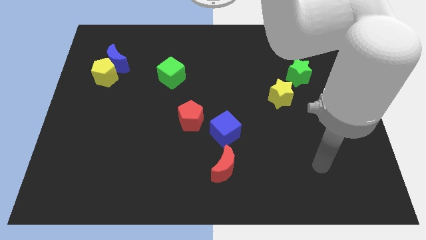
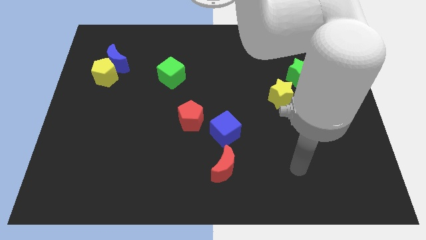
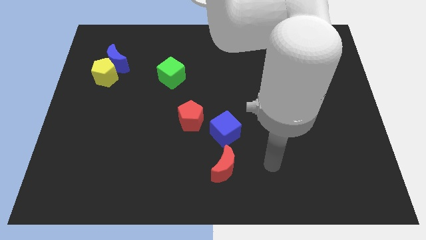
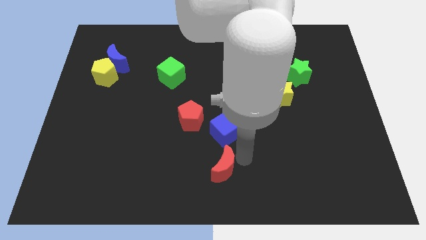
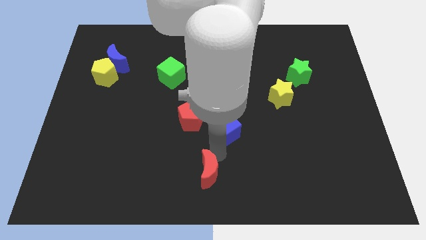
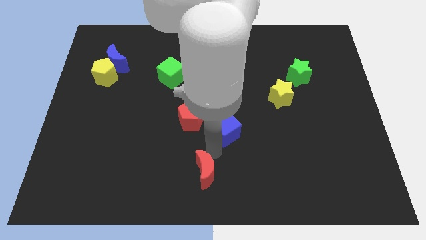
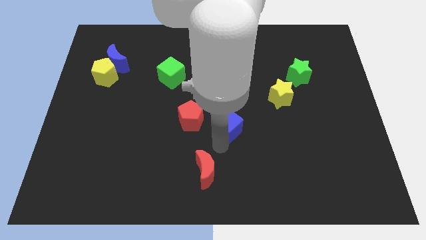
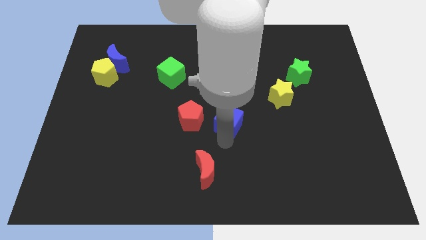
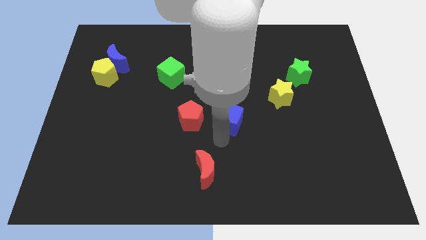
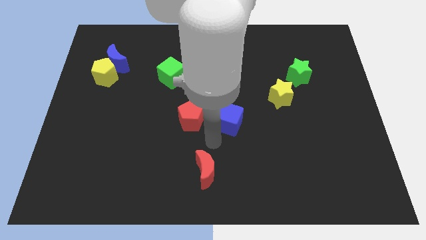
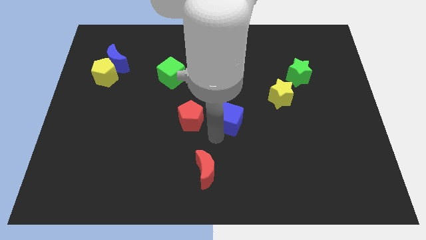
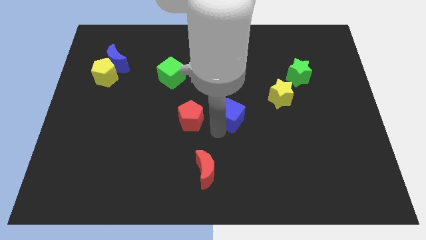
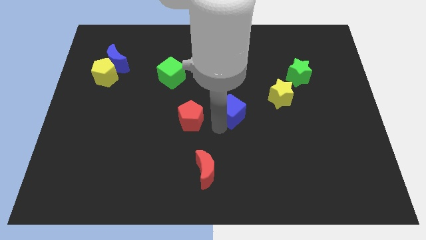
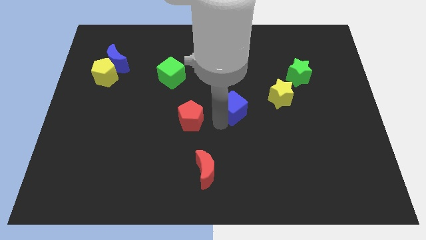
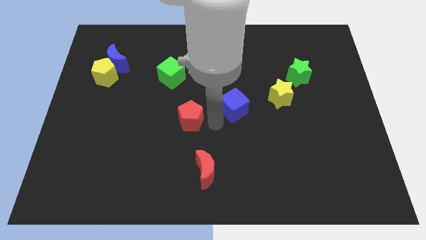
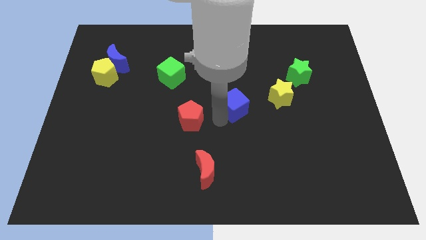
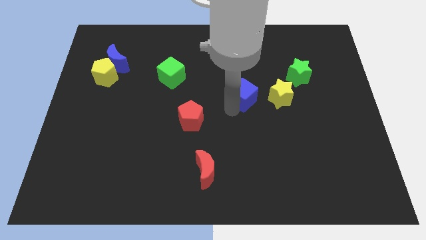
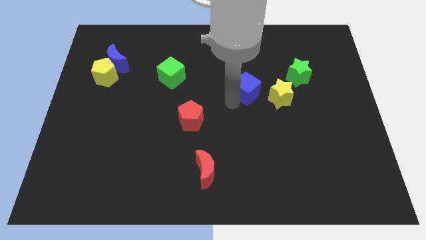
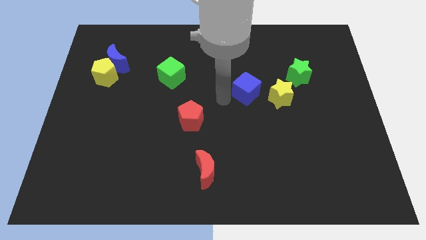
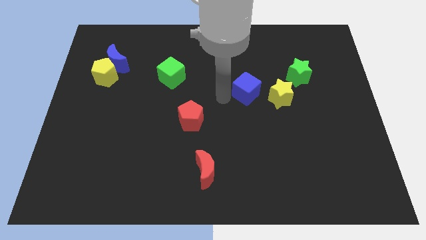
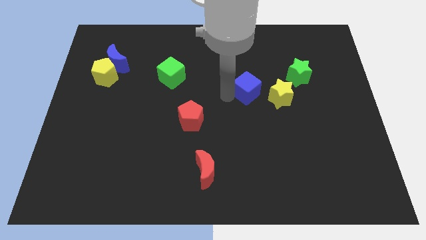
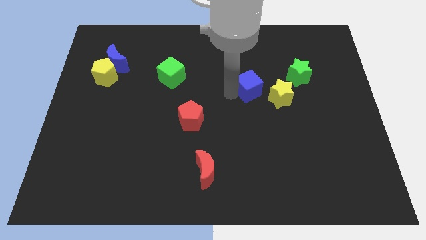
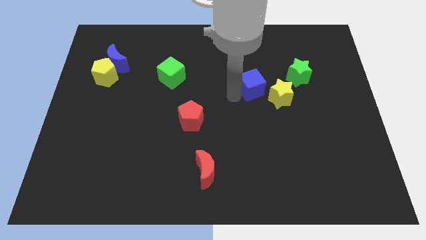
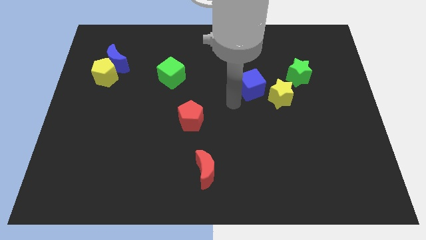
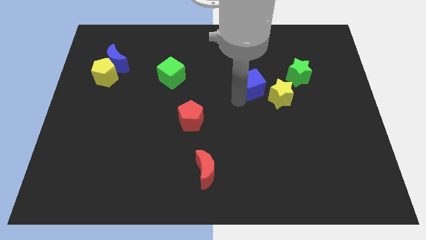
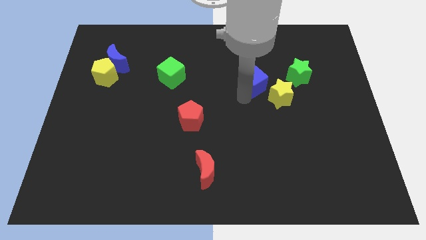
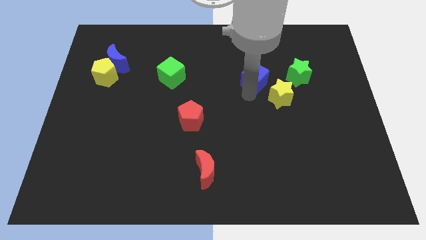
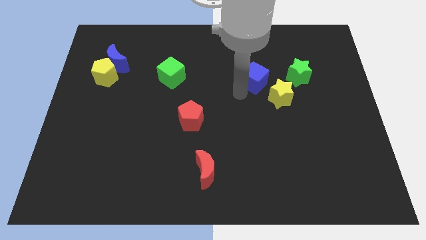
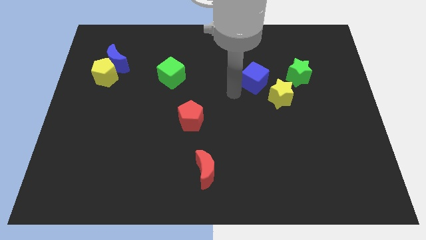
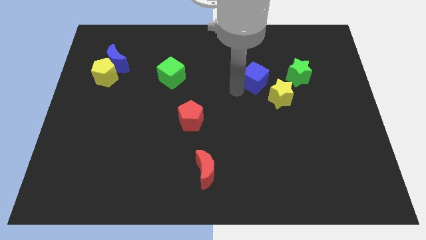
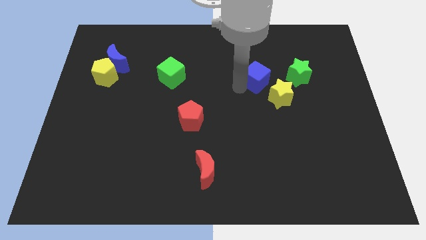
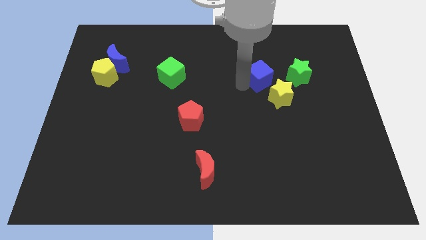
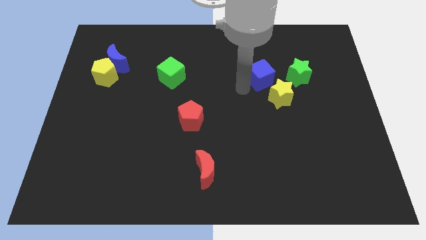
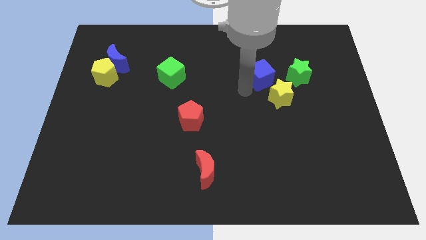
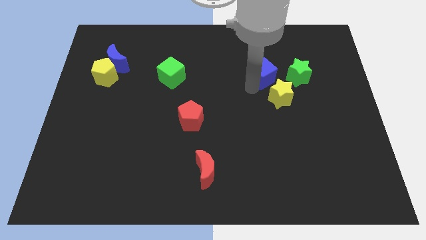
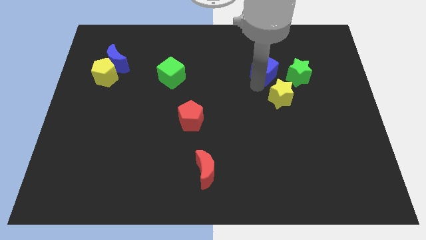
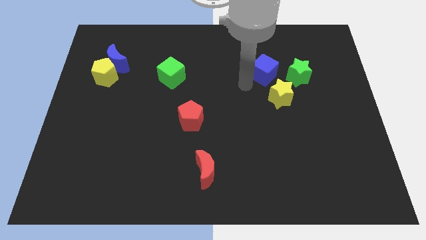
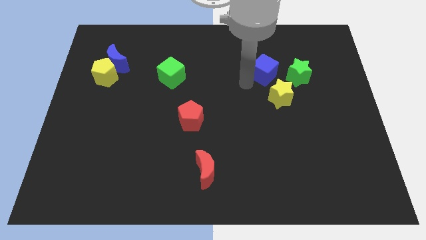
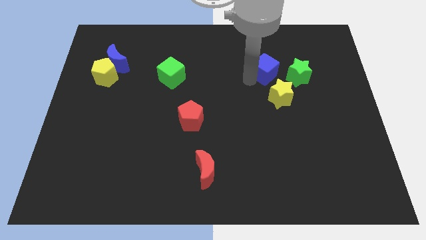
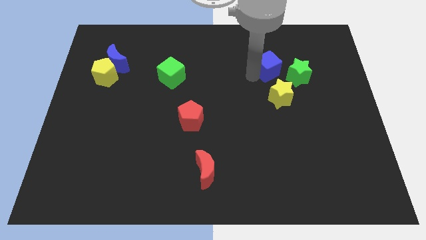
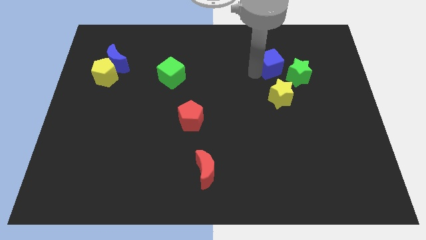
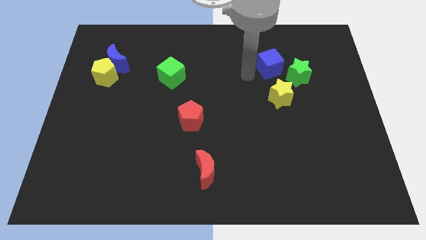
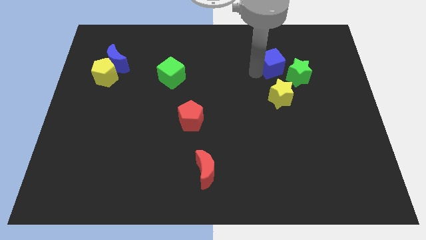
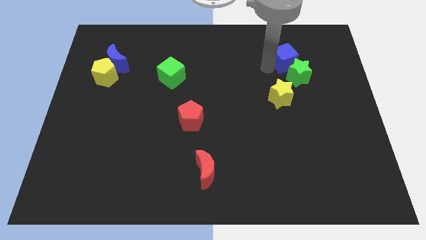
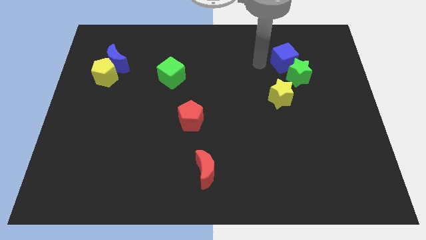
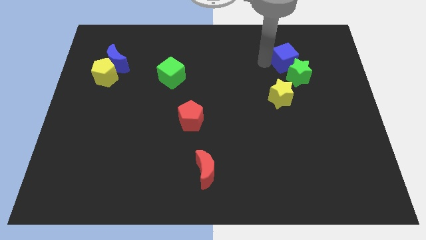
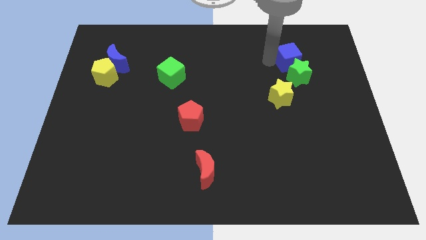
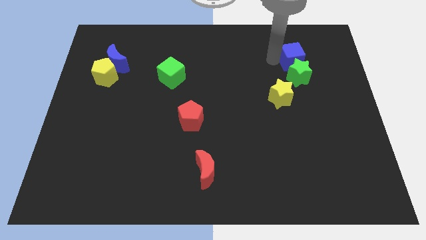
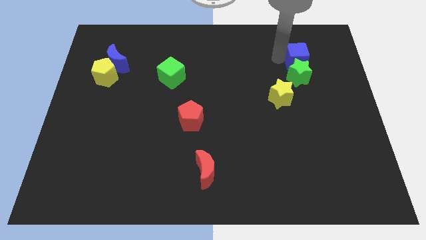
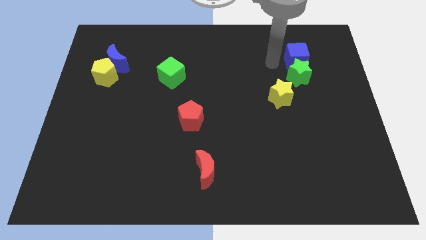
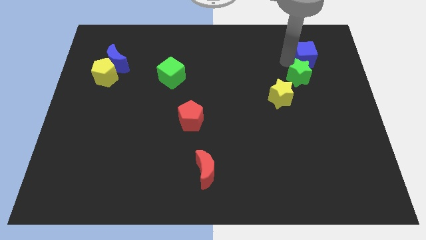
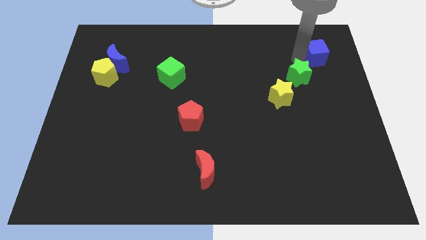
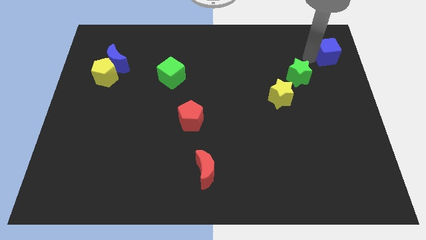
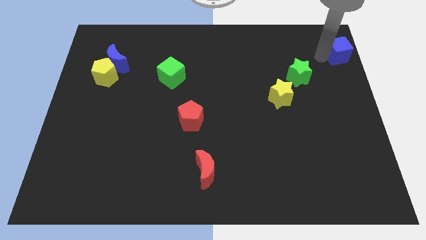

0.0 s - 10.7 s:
slide the blue cube to the top right corner

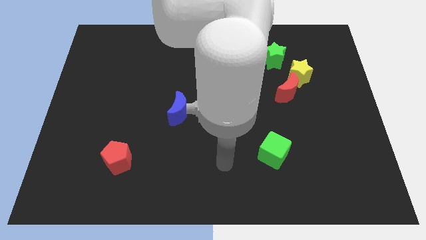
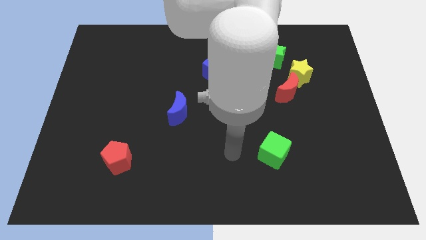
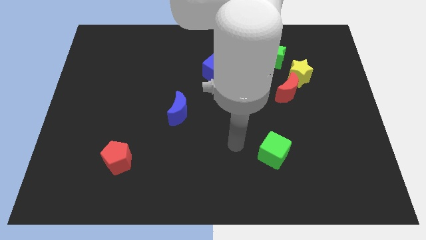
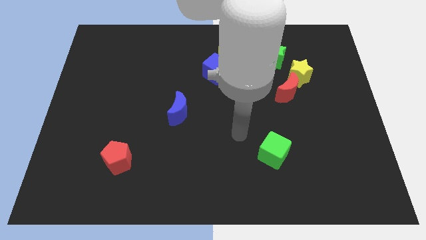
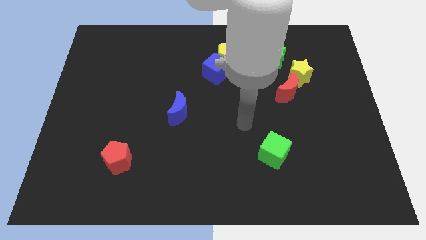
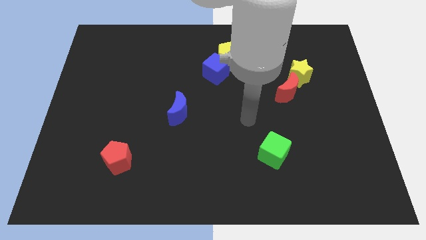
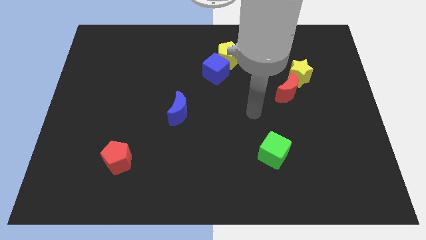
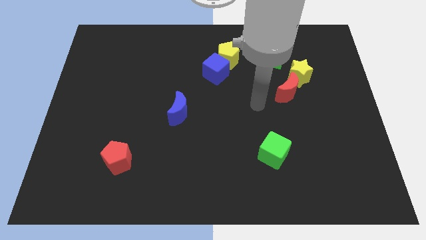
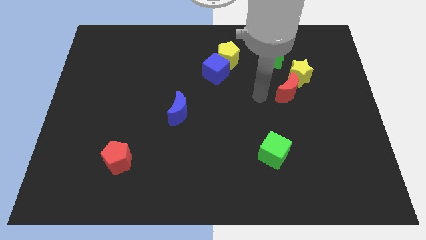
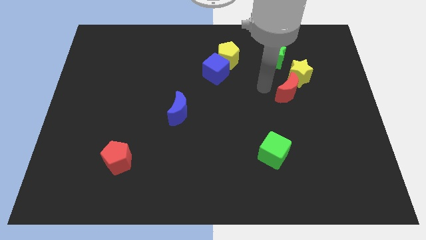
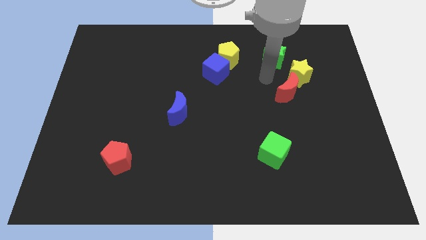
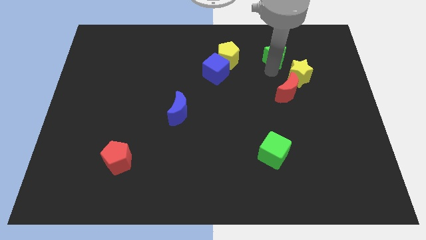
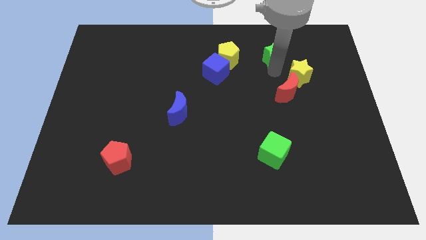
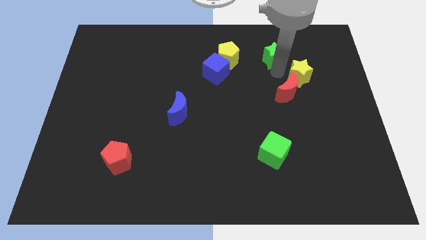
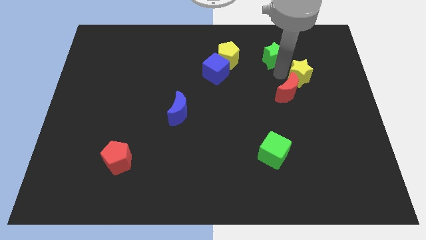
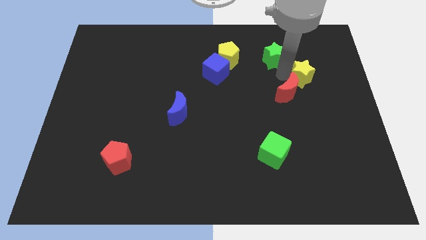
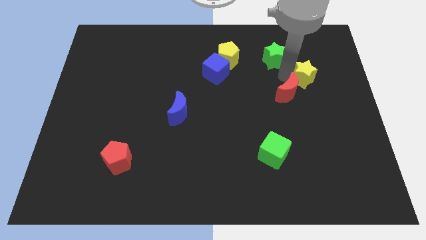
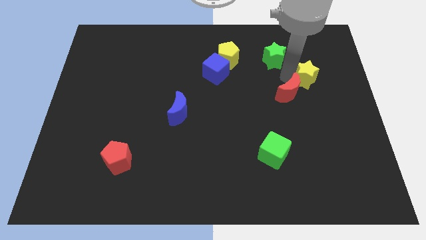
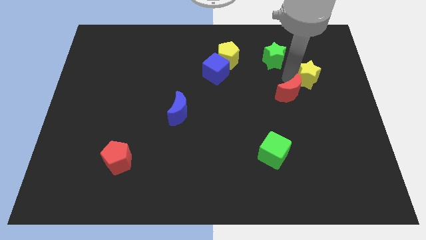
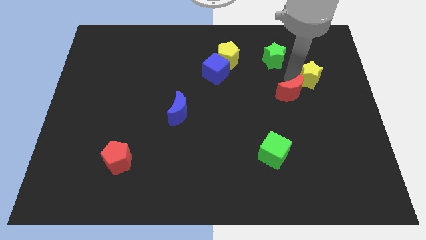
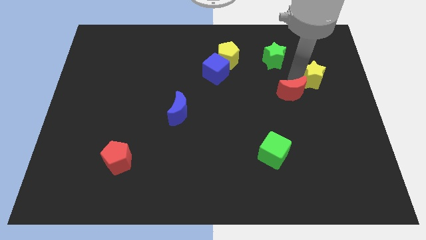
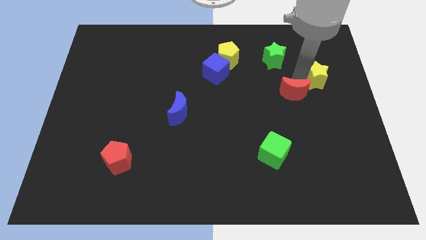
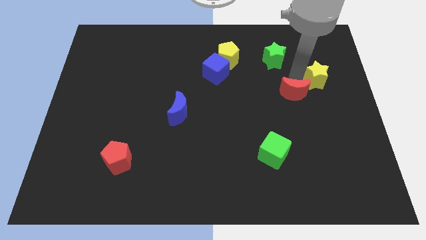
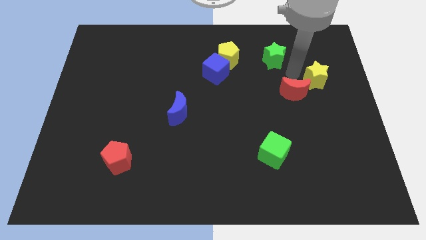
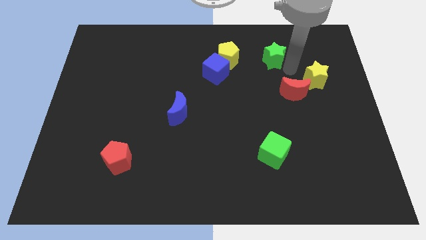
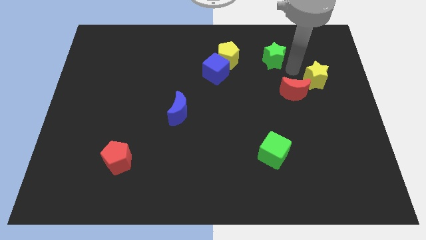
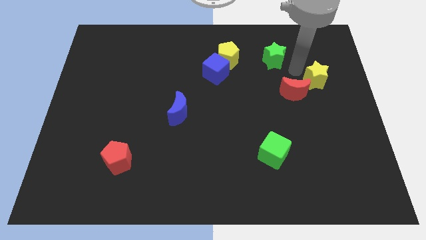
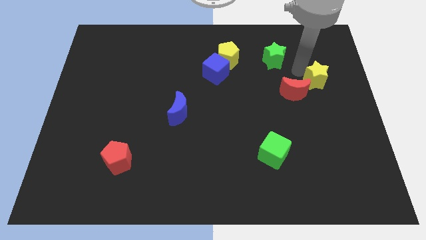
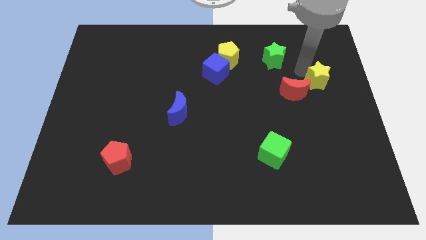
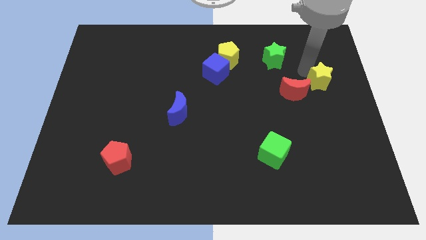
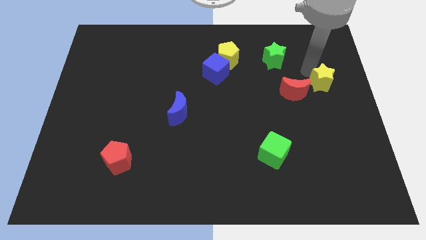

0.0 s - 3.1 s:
put the yellow star to the right side of the board
